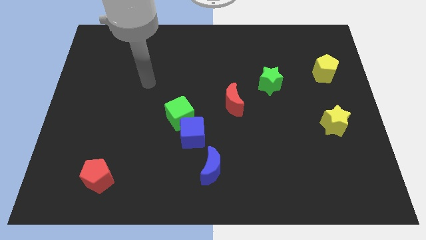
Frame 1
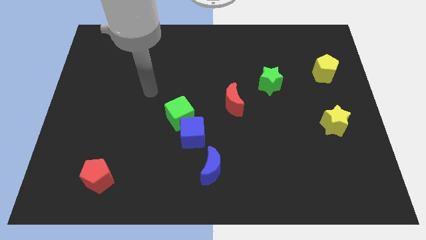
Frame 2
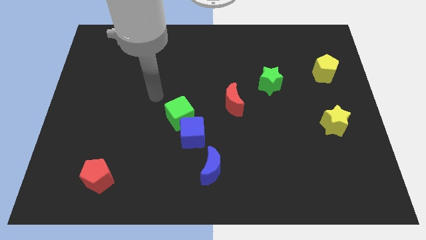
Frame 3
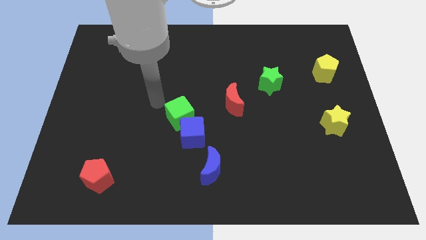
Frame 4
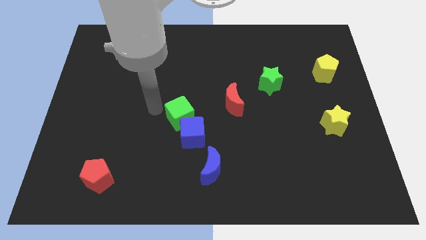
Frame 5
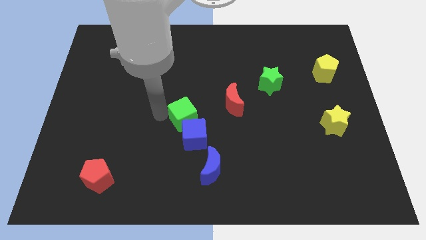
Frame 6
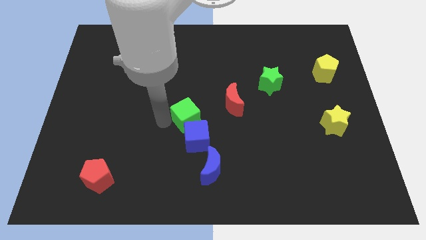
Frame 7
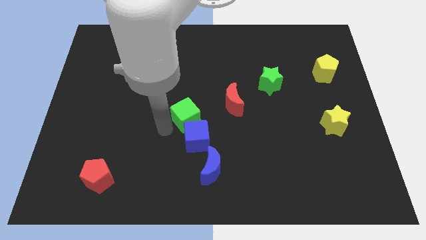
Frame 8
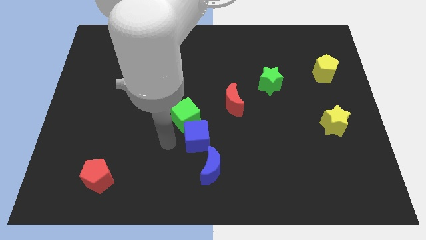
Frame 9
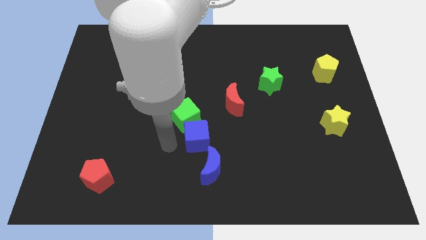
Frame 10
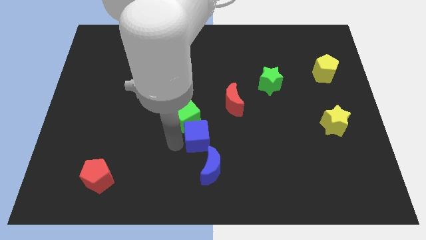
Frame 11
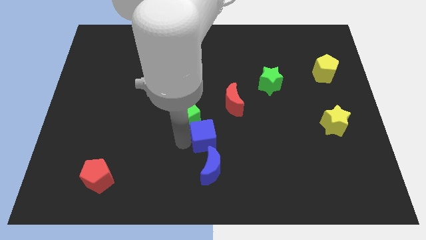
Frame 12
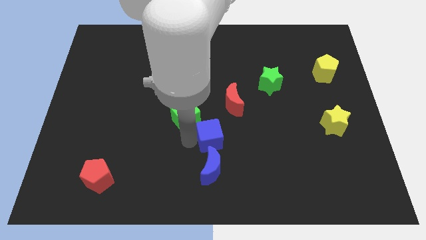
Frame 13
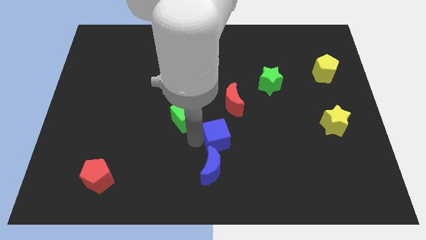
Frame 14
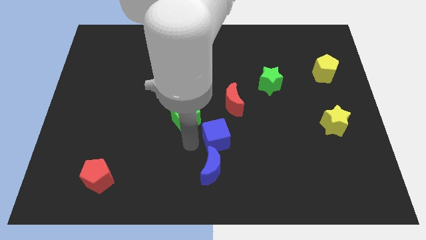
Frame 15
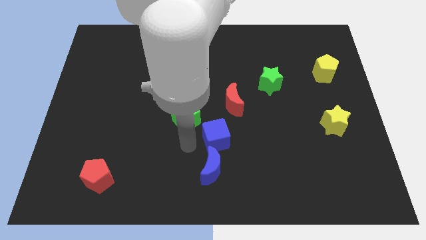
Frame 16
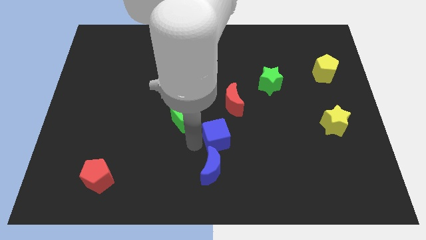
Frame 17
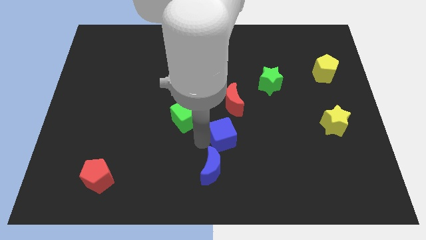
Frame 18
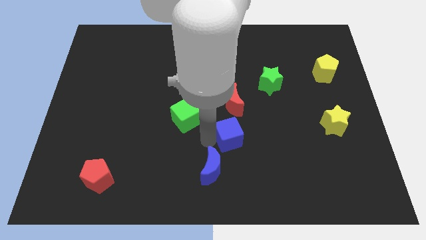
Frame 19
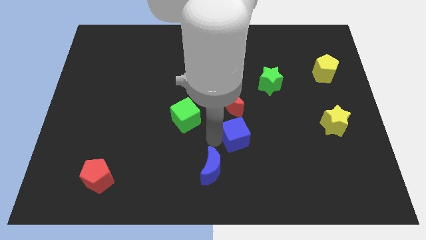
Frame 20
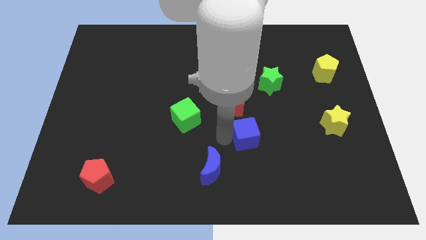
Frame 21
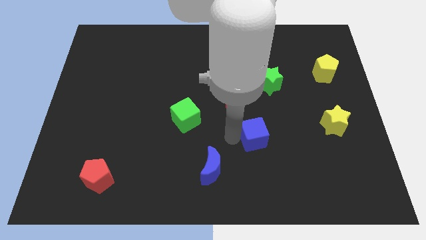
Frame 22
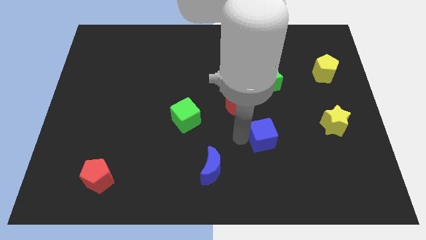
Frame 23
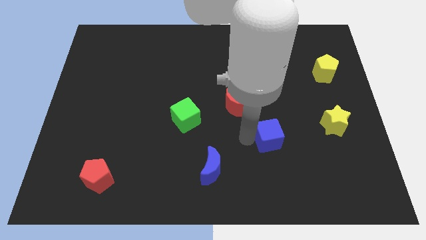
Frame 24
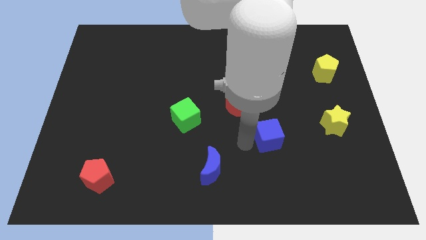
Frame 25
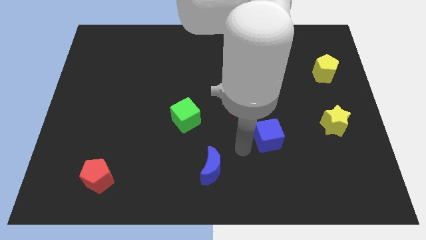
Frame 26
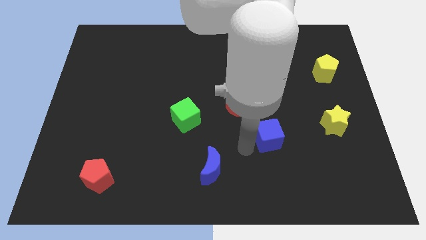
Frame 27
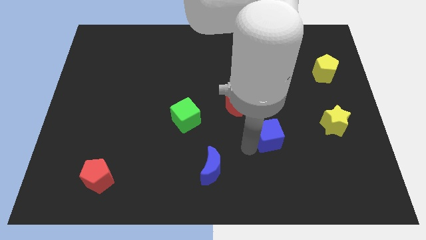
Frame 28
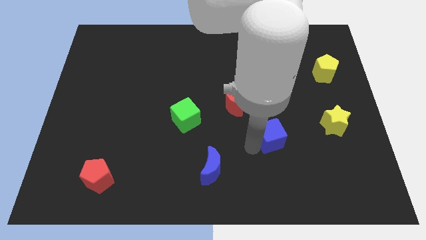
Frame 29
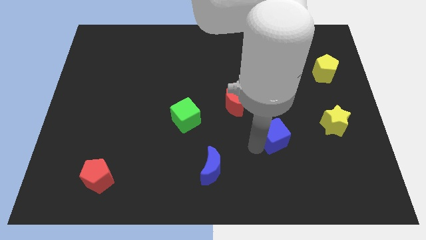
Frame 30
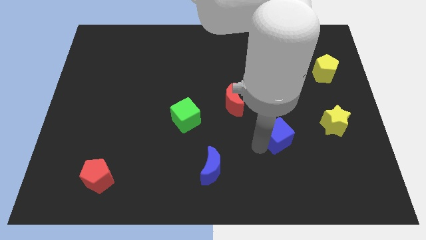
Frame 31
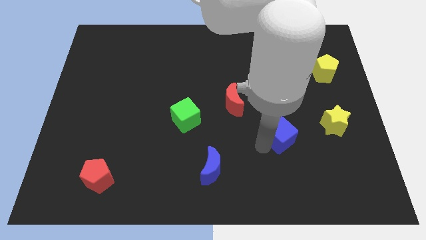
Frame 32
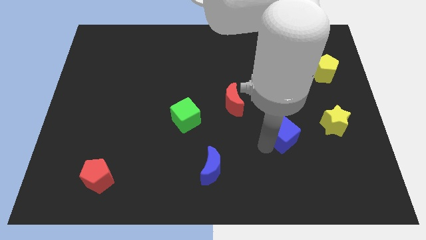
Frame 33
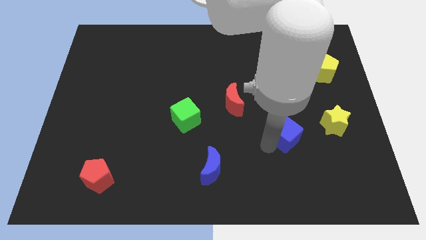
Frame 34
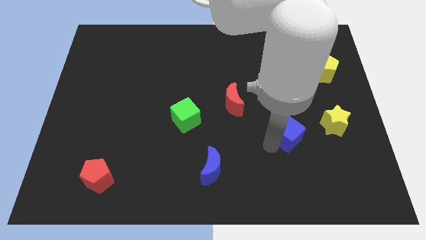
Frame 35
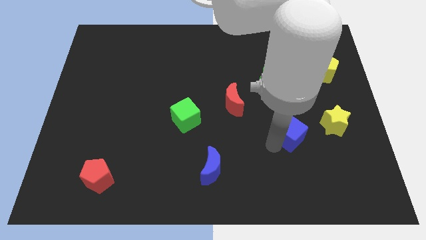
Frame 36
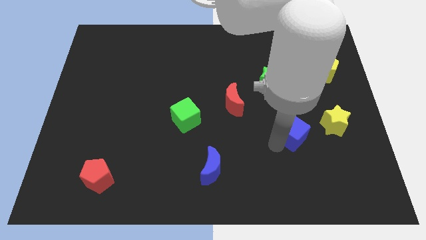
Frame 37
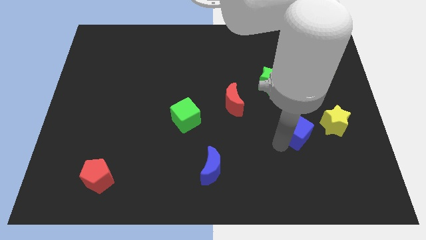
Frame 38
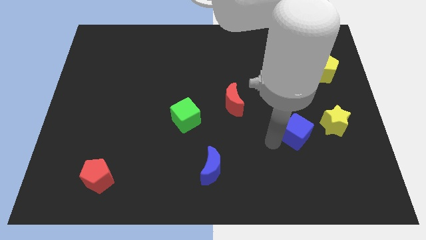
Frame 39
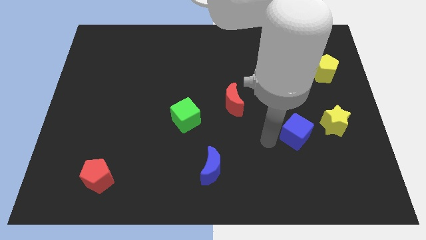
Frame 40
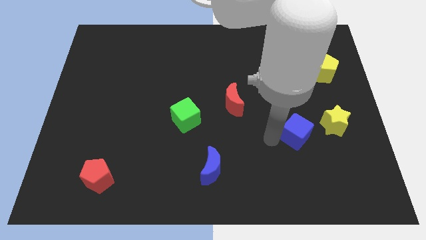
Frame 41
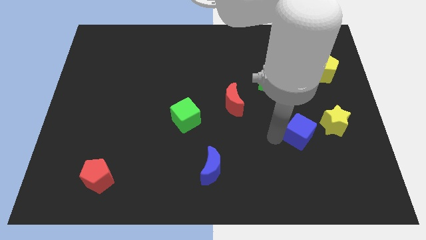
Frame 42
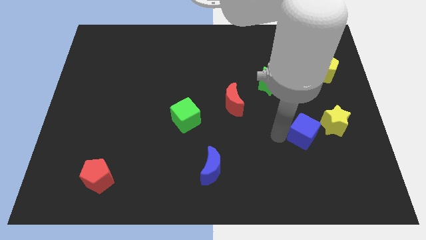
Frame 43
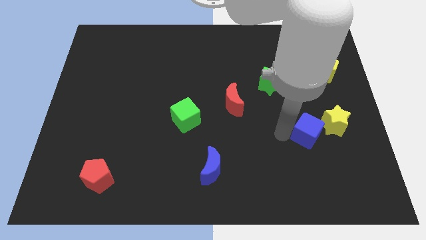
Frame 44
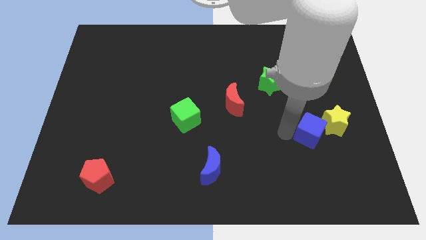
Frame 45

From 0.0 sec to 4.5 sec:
put the blue cube towards the yellow star

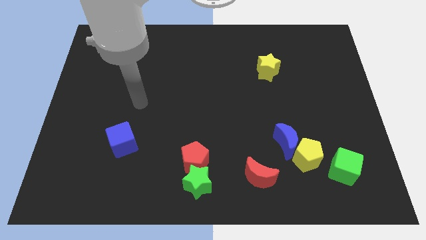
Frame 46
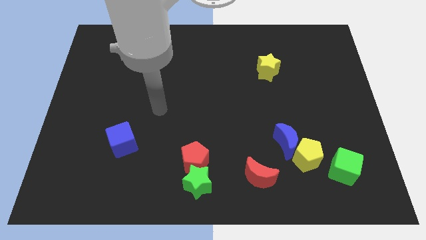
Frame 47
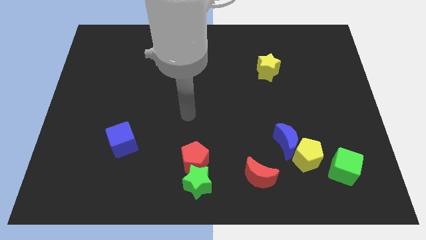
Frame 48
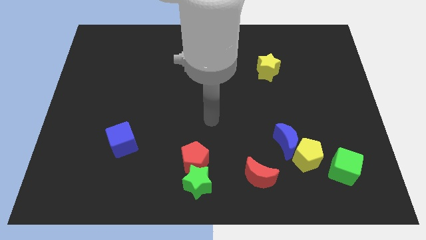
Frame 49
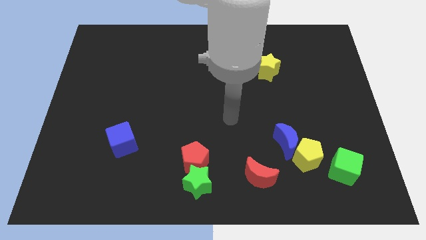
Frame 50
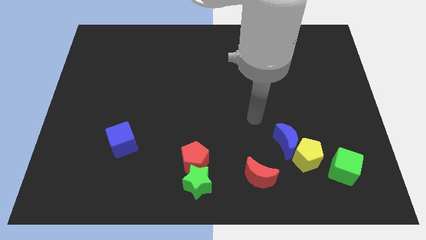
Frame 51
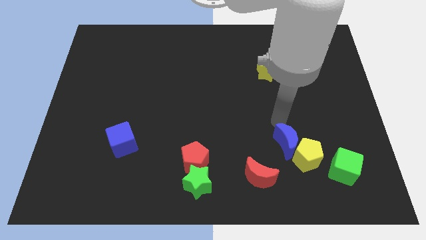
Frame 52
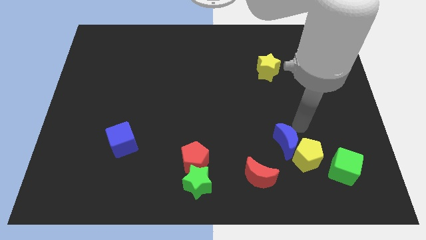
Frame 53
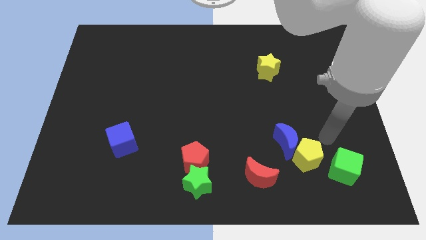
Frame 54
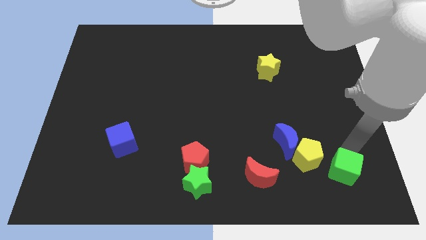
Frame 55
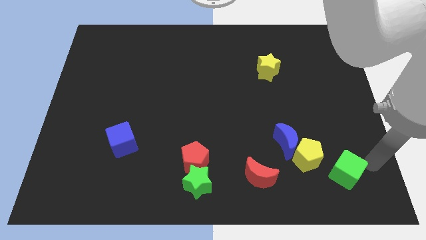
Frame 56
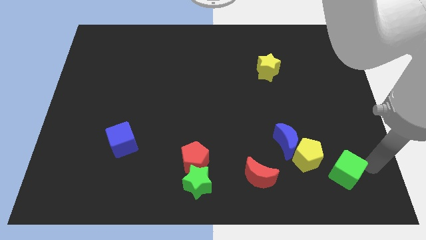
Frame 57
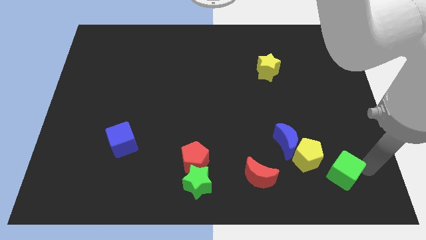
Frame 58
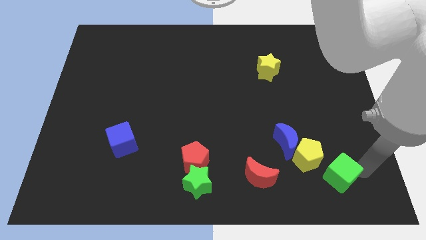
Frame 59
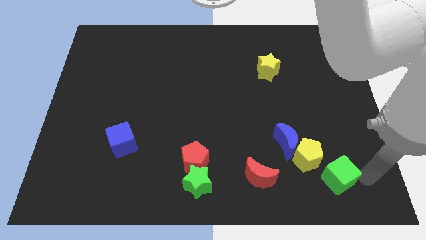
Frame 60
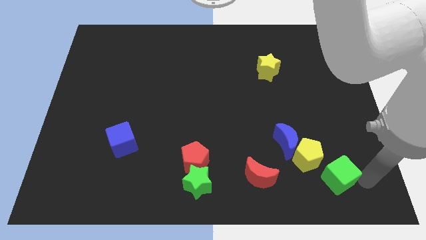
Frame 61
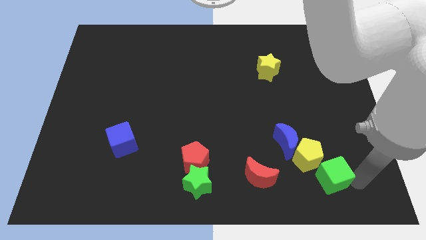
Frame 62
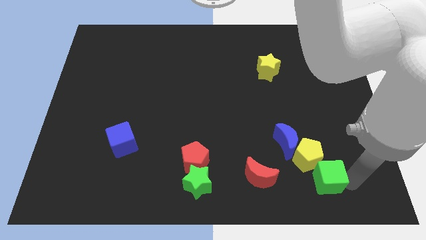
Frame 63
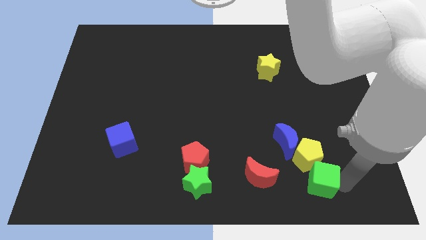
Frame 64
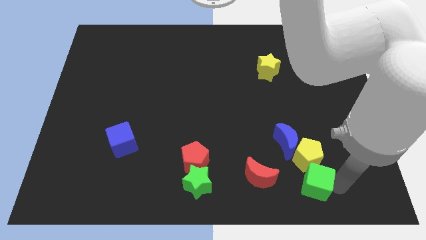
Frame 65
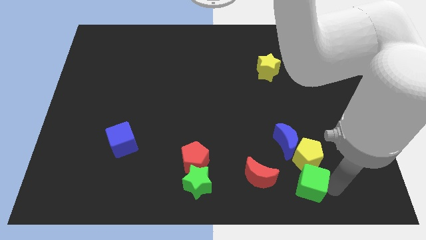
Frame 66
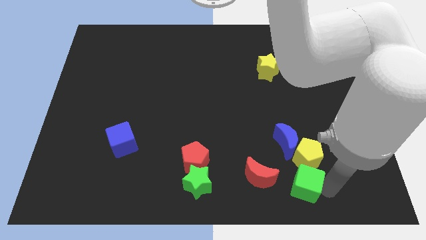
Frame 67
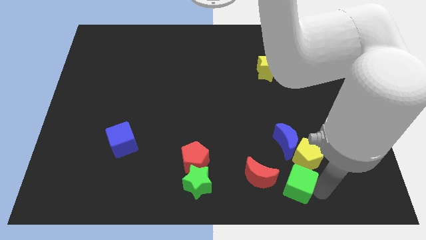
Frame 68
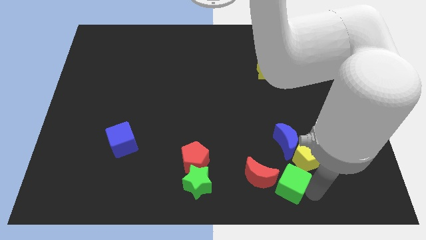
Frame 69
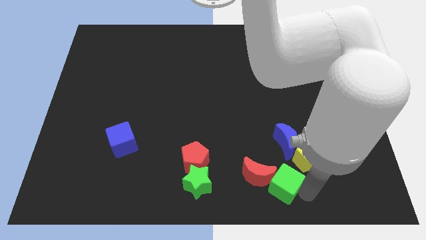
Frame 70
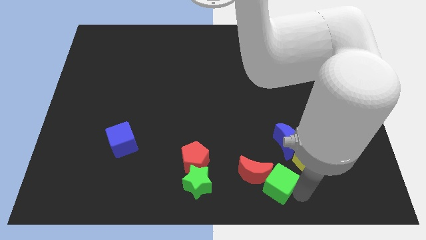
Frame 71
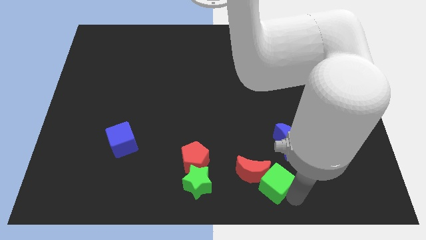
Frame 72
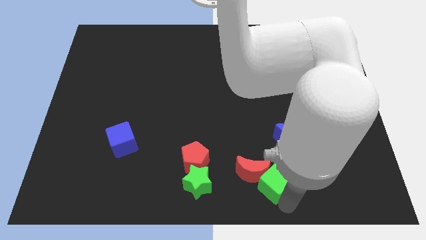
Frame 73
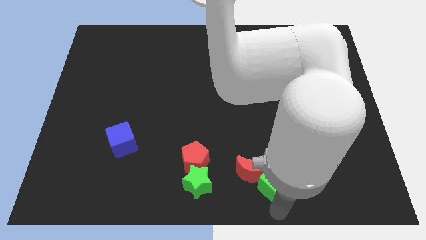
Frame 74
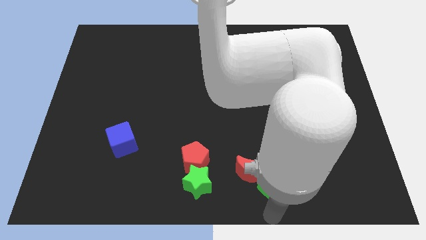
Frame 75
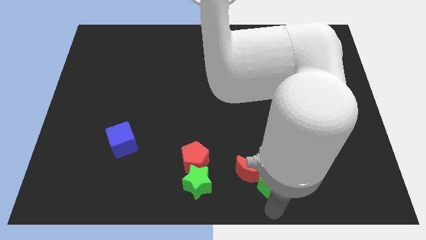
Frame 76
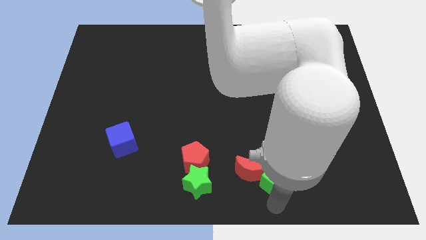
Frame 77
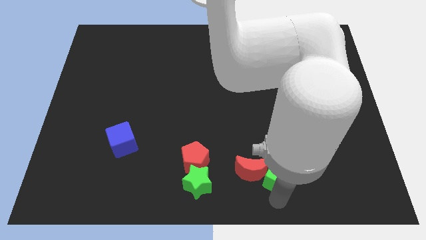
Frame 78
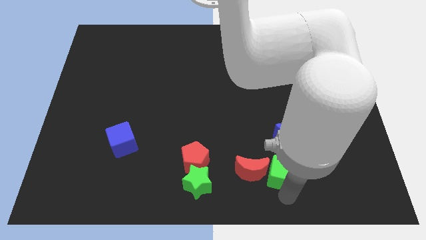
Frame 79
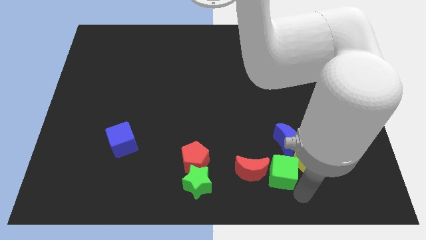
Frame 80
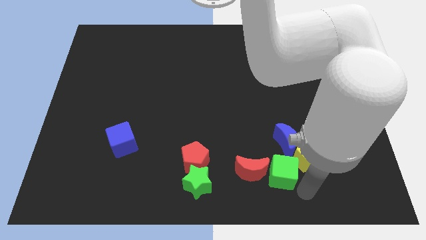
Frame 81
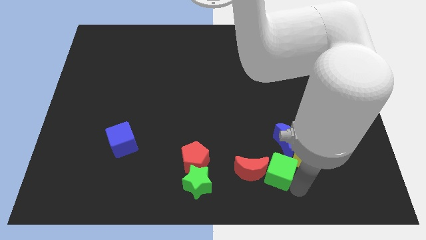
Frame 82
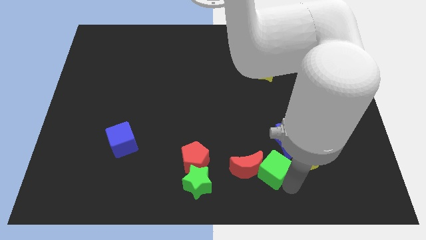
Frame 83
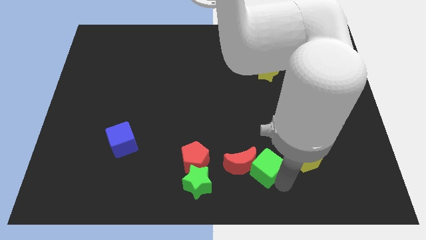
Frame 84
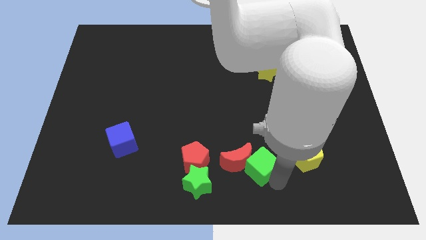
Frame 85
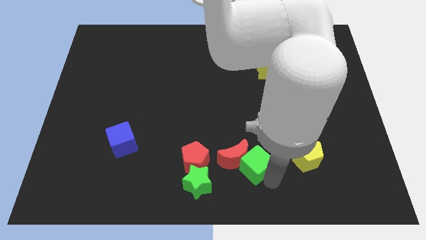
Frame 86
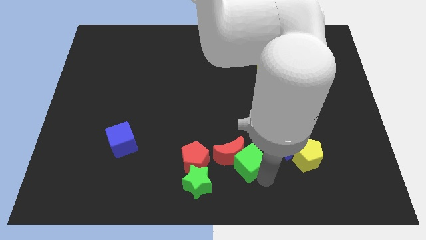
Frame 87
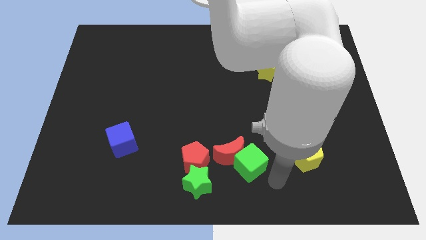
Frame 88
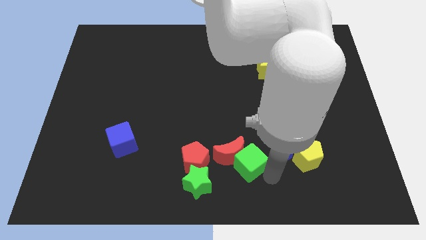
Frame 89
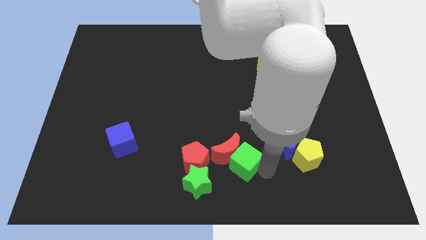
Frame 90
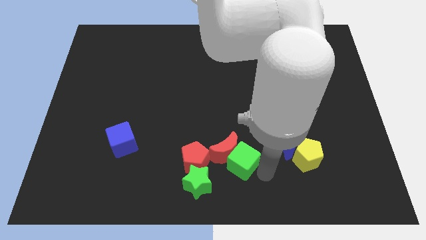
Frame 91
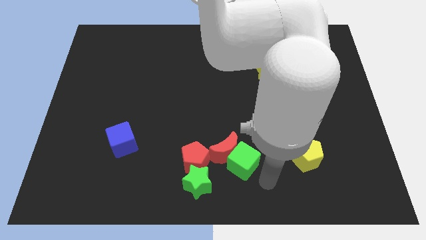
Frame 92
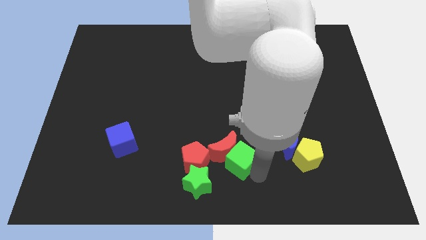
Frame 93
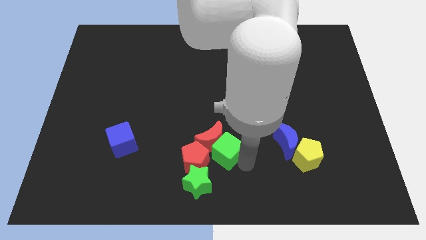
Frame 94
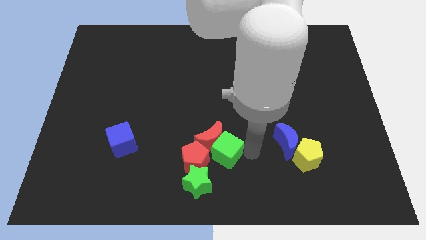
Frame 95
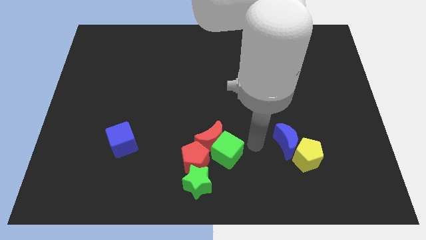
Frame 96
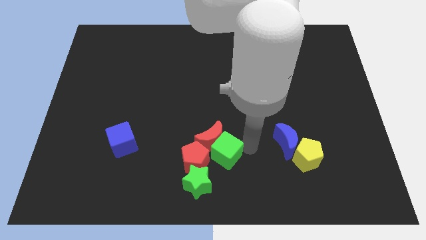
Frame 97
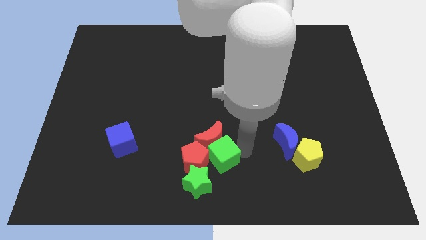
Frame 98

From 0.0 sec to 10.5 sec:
push the green cube towards the red pentagon
